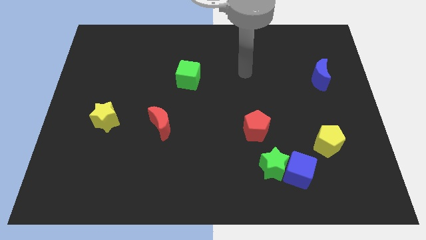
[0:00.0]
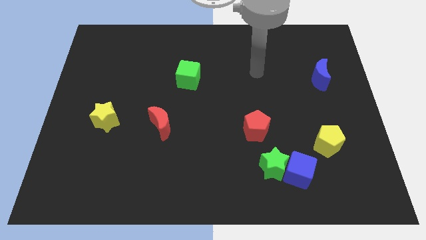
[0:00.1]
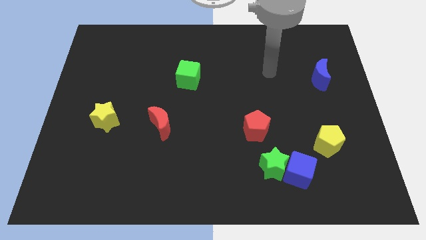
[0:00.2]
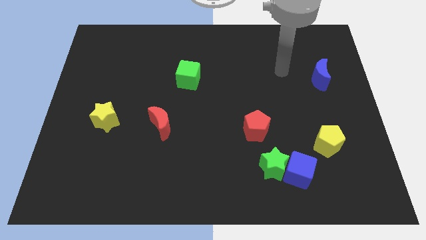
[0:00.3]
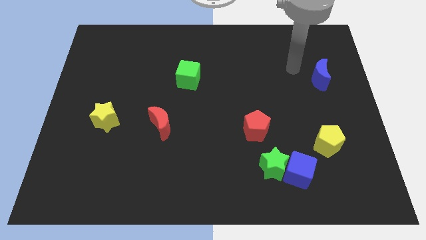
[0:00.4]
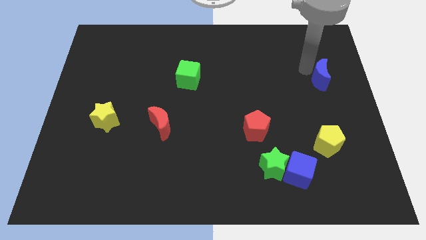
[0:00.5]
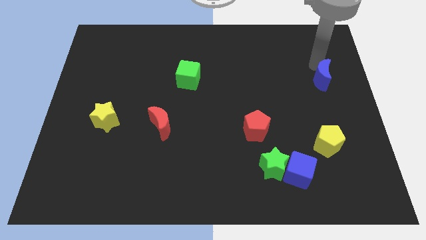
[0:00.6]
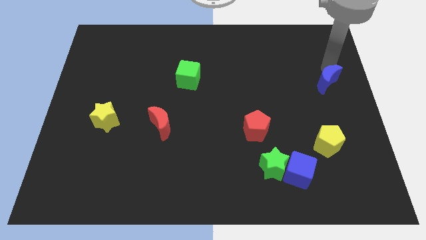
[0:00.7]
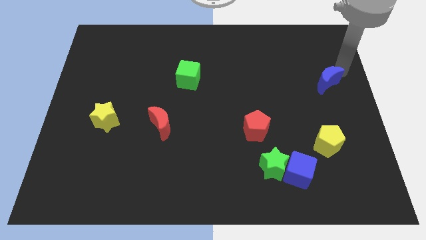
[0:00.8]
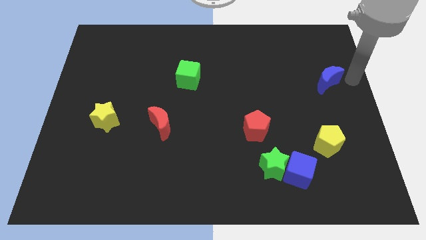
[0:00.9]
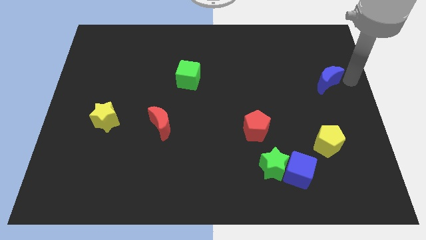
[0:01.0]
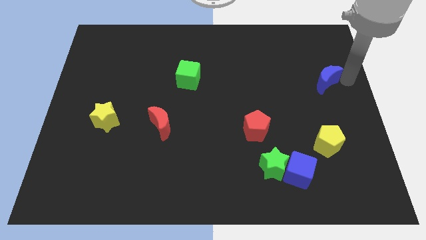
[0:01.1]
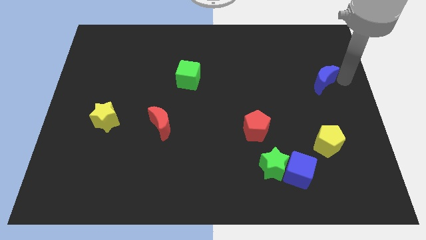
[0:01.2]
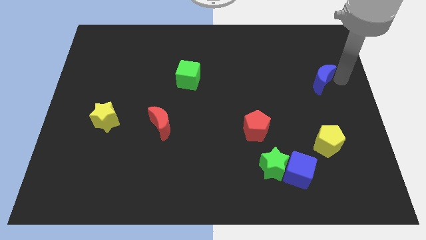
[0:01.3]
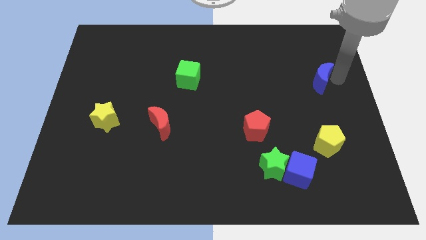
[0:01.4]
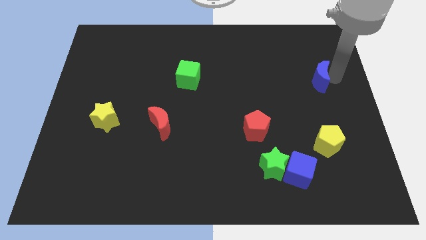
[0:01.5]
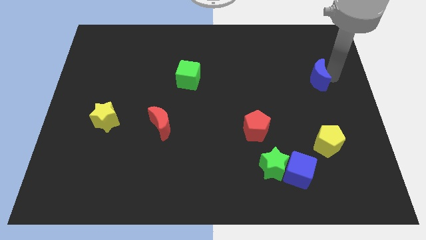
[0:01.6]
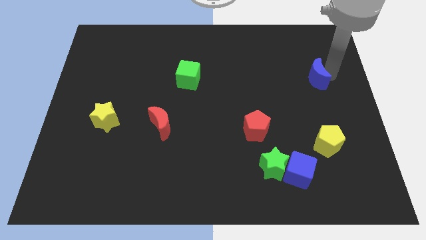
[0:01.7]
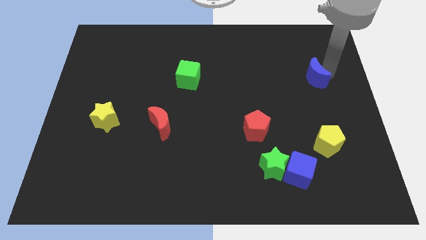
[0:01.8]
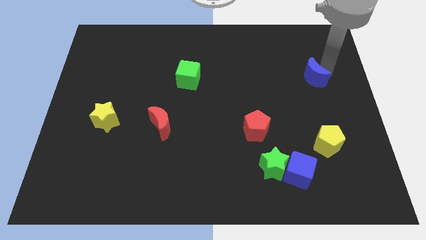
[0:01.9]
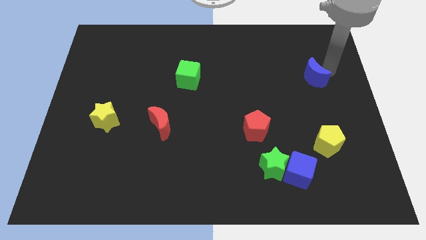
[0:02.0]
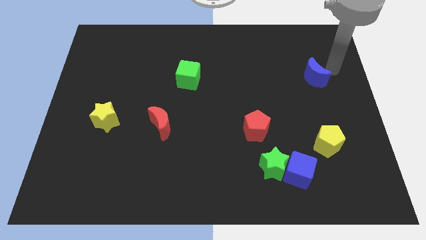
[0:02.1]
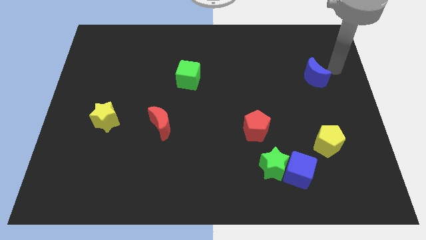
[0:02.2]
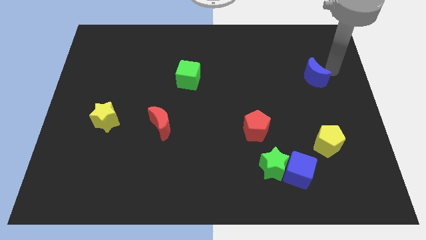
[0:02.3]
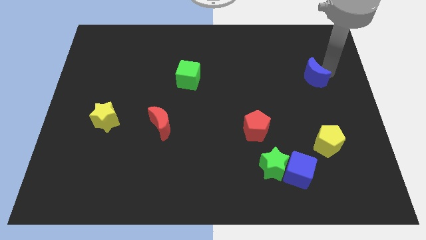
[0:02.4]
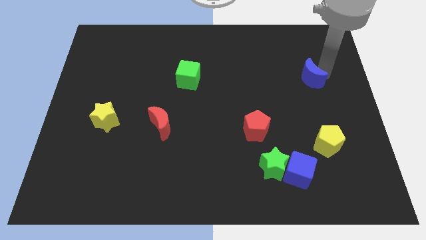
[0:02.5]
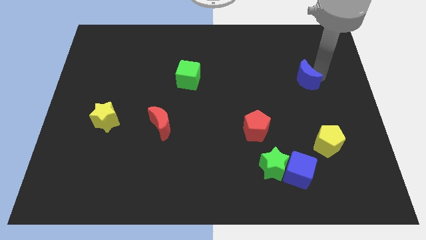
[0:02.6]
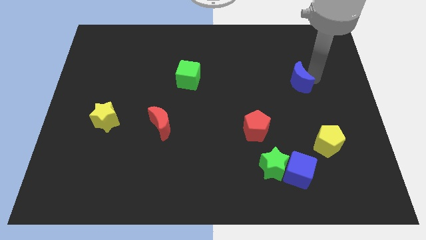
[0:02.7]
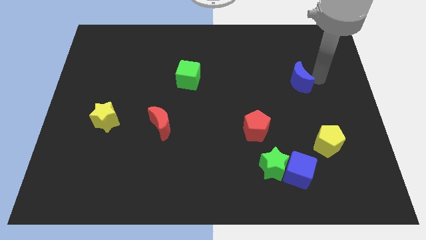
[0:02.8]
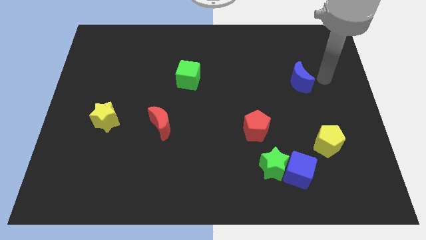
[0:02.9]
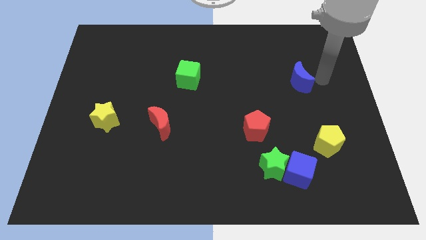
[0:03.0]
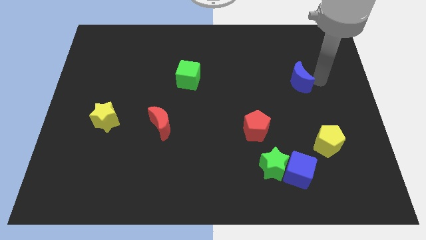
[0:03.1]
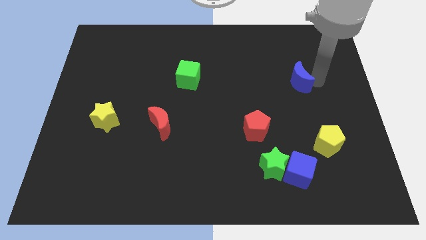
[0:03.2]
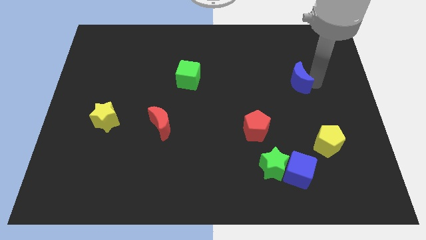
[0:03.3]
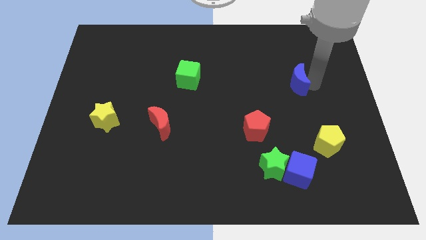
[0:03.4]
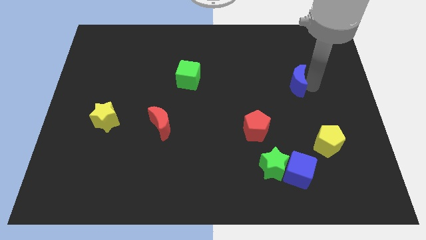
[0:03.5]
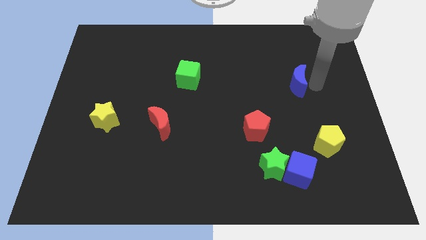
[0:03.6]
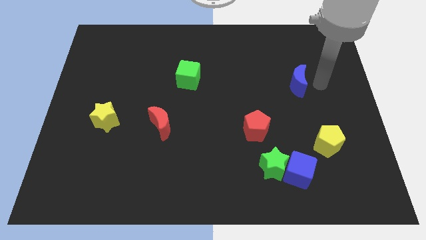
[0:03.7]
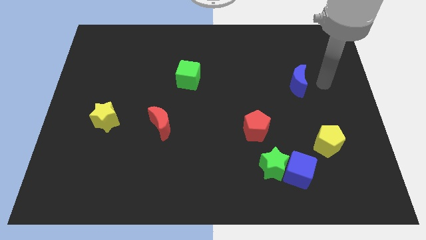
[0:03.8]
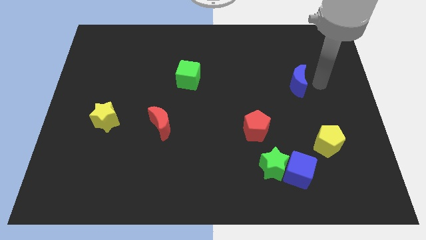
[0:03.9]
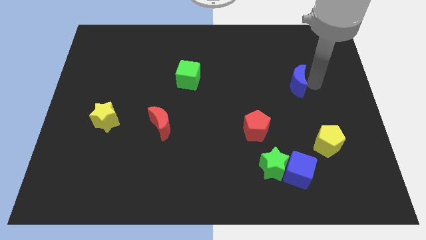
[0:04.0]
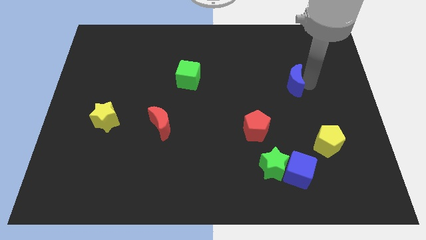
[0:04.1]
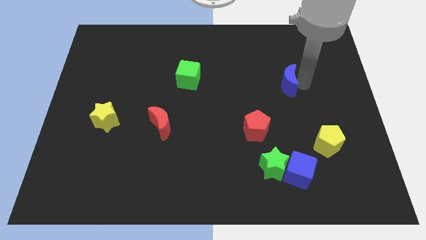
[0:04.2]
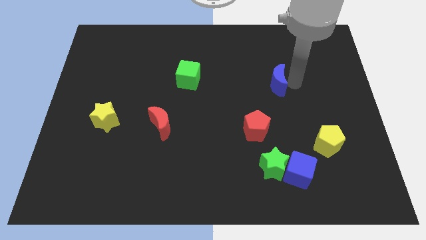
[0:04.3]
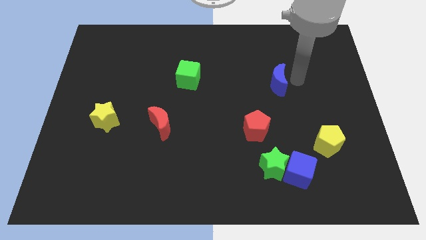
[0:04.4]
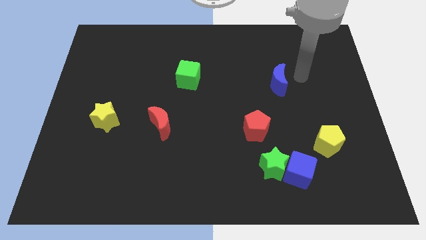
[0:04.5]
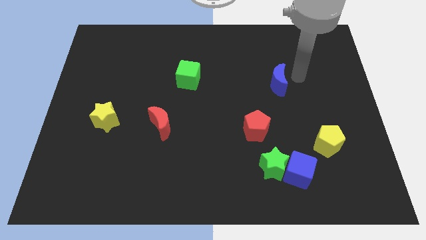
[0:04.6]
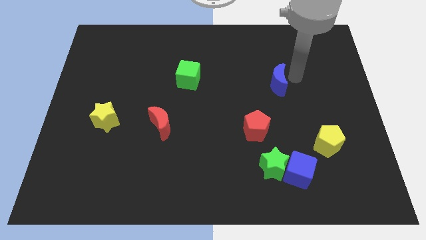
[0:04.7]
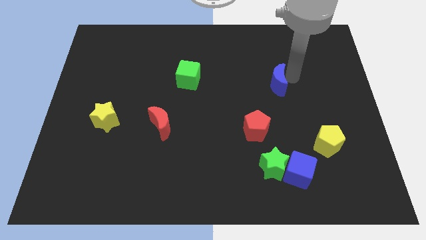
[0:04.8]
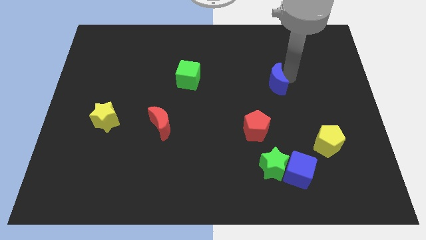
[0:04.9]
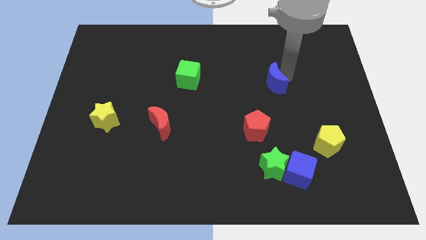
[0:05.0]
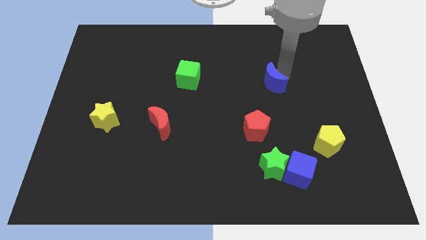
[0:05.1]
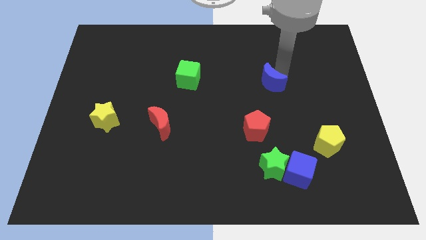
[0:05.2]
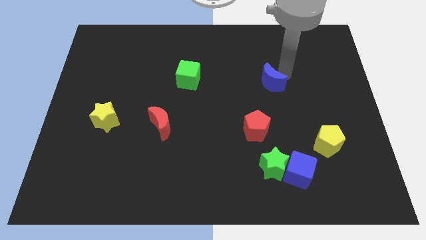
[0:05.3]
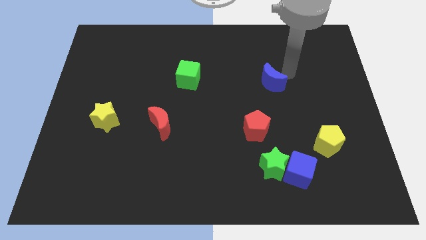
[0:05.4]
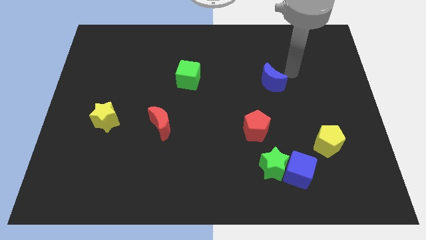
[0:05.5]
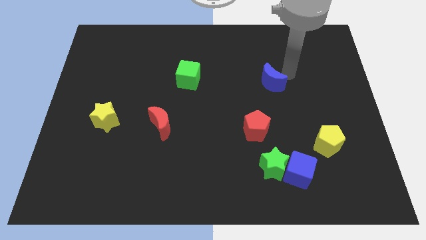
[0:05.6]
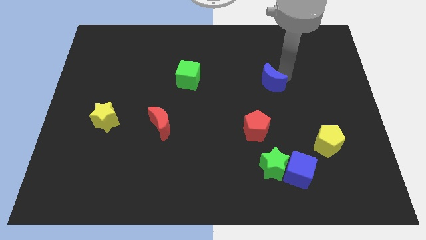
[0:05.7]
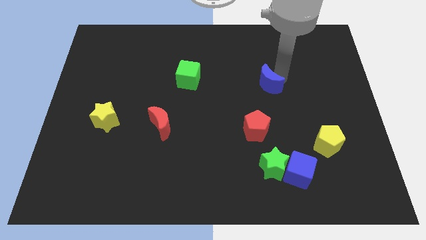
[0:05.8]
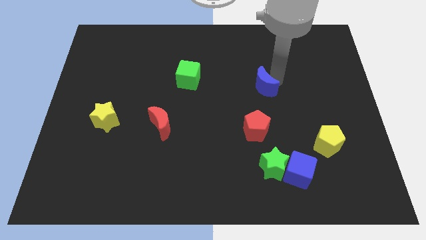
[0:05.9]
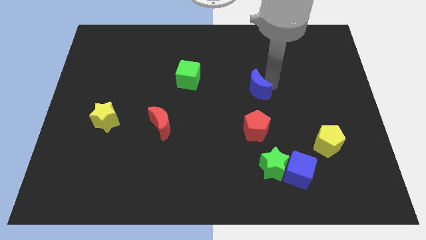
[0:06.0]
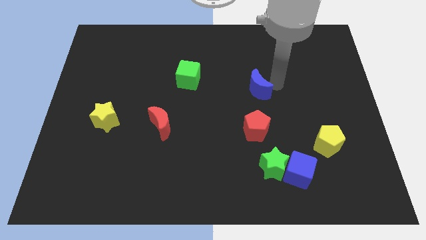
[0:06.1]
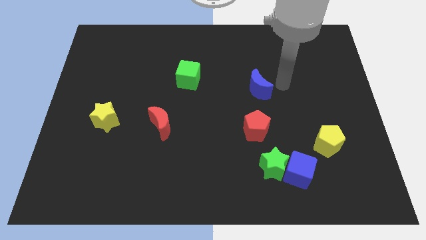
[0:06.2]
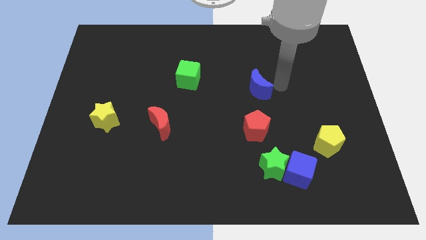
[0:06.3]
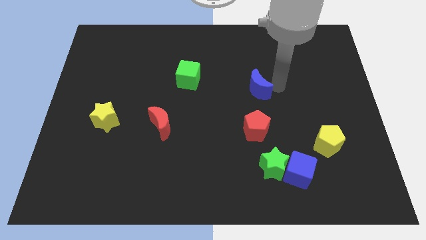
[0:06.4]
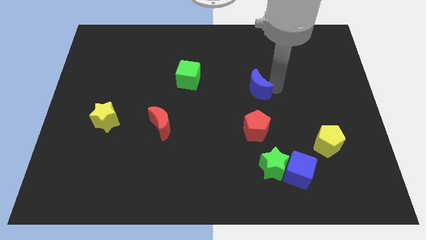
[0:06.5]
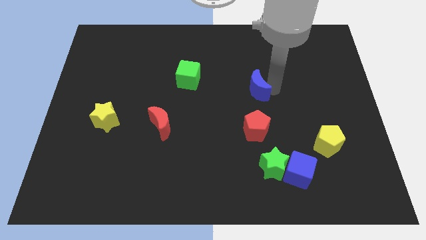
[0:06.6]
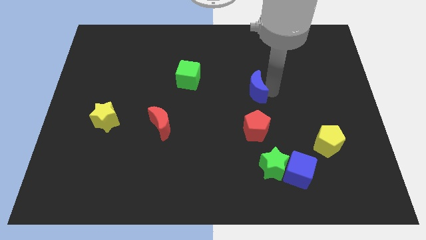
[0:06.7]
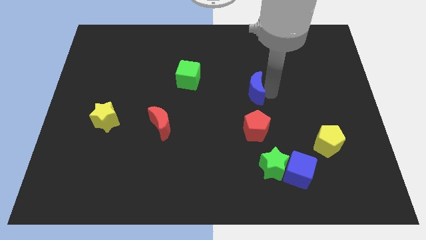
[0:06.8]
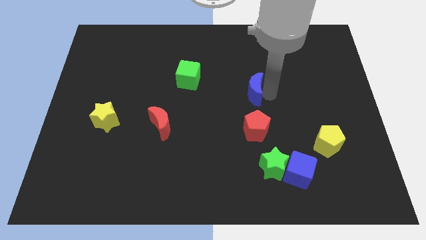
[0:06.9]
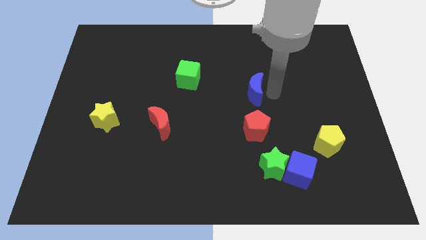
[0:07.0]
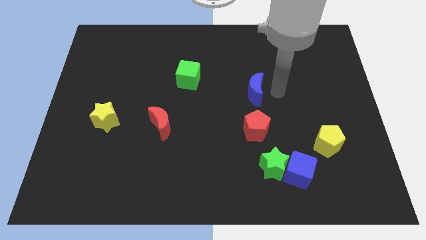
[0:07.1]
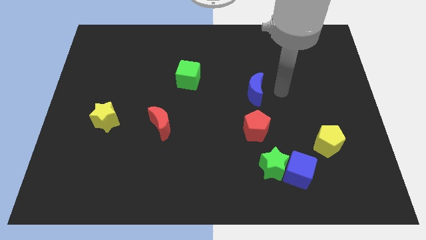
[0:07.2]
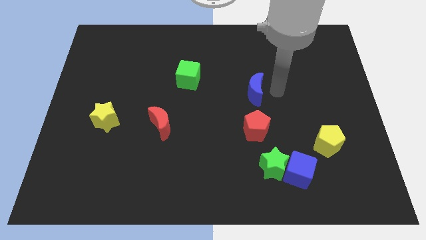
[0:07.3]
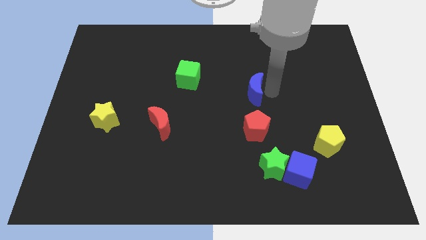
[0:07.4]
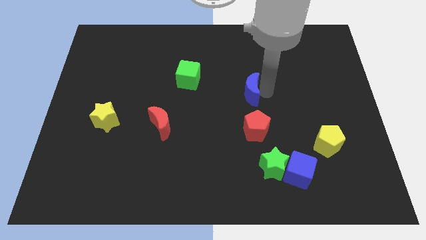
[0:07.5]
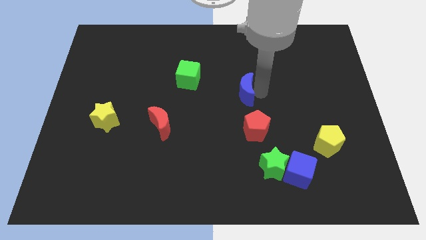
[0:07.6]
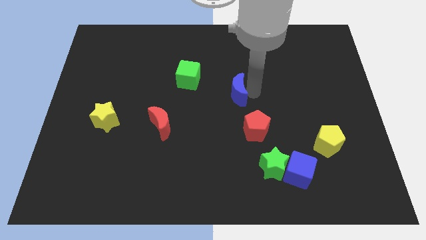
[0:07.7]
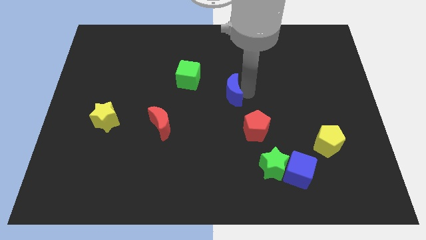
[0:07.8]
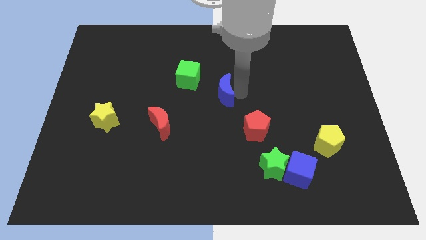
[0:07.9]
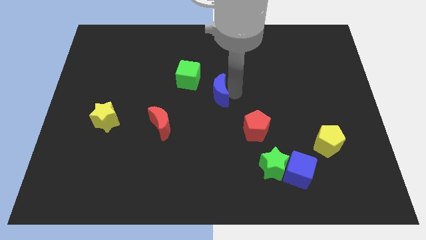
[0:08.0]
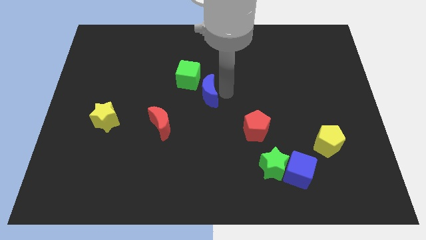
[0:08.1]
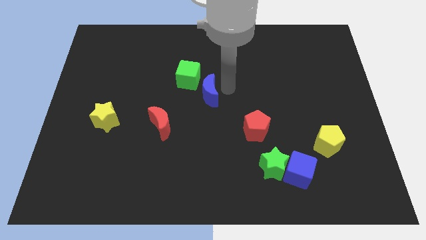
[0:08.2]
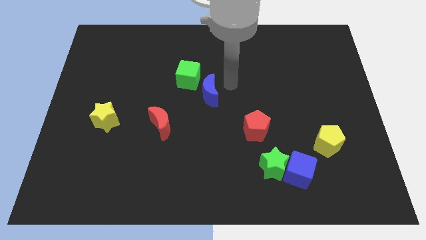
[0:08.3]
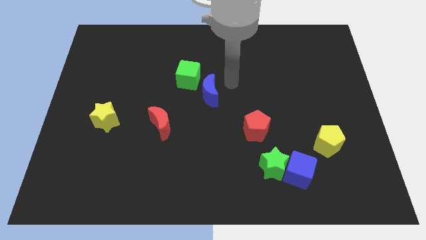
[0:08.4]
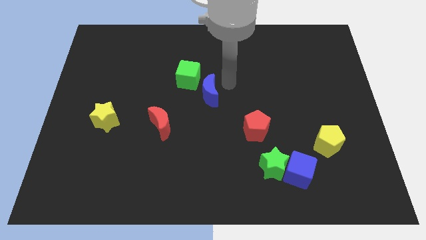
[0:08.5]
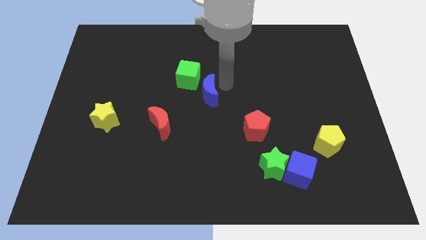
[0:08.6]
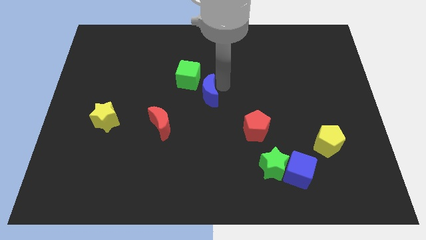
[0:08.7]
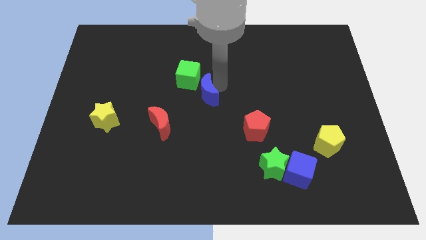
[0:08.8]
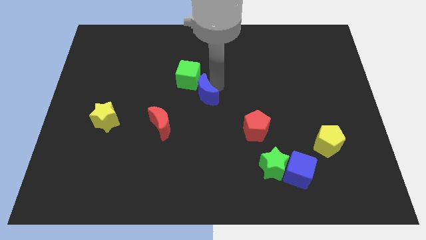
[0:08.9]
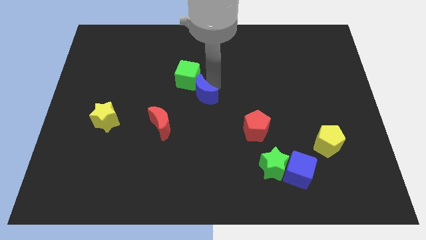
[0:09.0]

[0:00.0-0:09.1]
push the blue moon to the top right of the red moon
